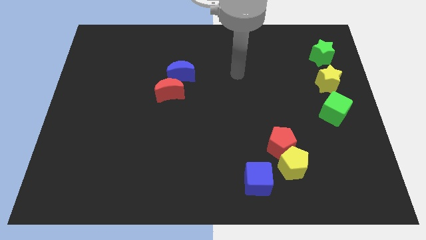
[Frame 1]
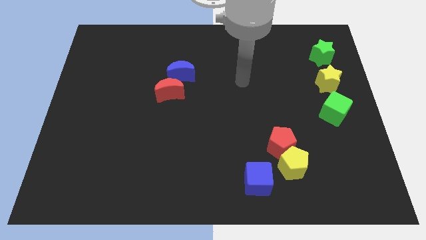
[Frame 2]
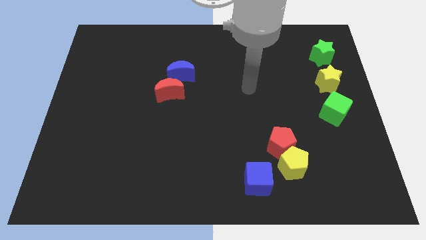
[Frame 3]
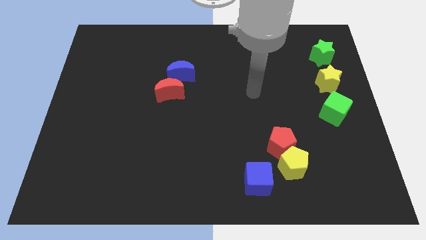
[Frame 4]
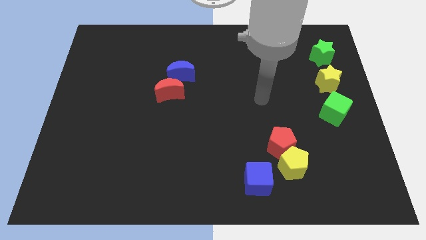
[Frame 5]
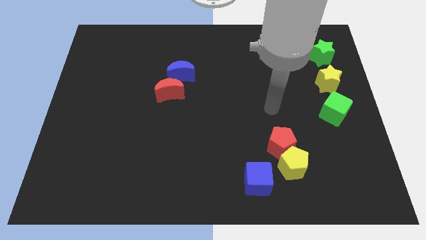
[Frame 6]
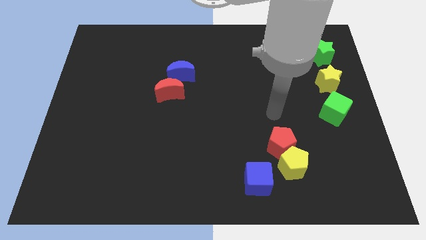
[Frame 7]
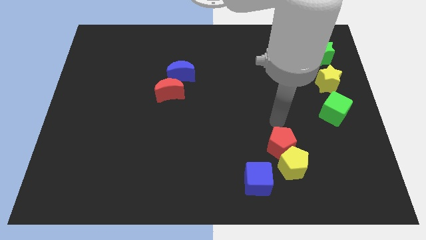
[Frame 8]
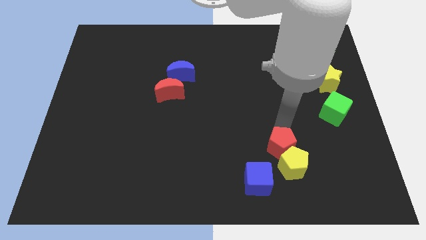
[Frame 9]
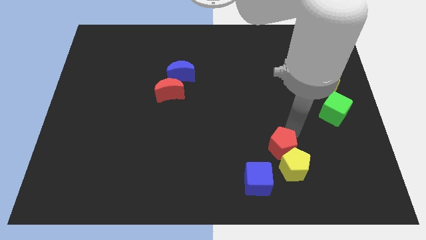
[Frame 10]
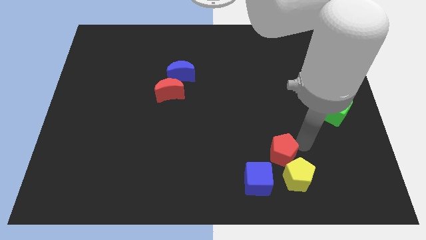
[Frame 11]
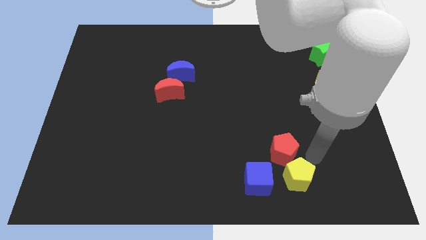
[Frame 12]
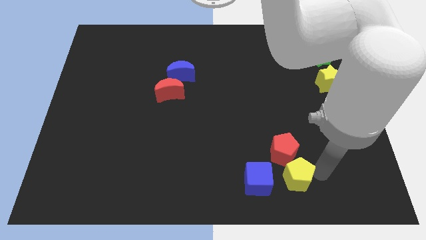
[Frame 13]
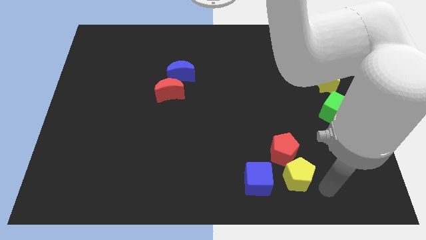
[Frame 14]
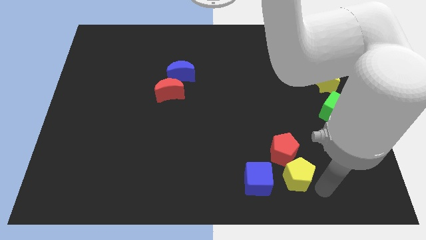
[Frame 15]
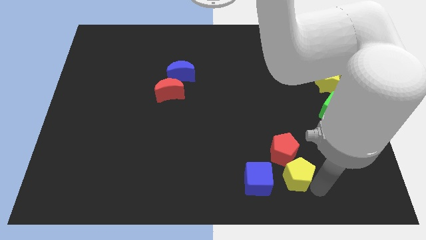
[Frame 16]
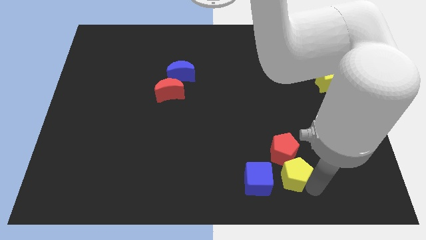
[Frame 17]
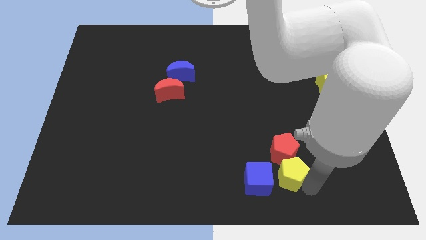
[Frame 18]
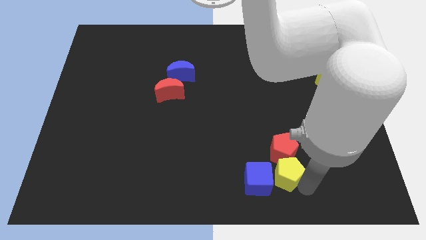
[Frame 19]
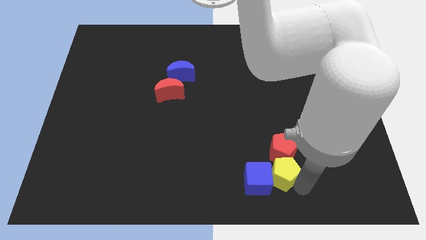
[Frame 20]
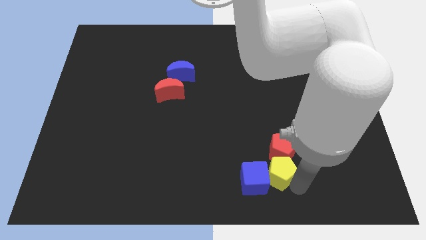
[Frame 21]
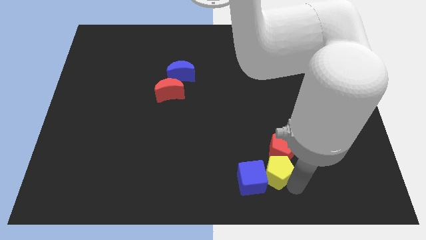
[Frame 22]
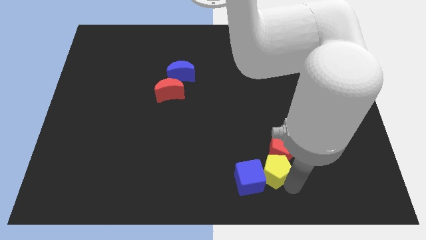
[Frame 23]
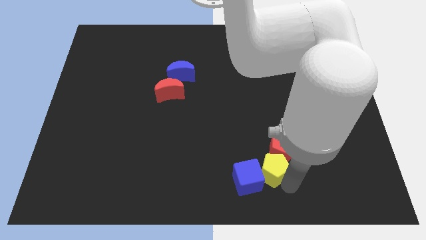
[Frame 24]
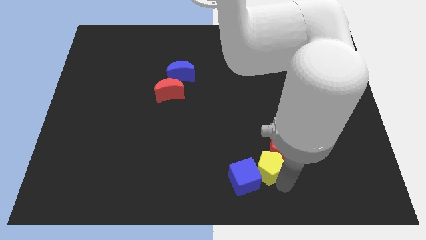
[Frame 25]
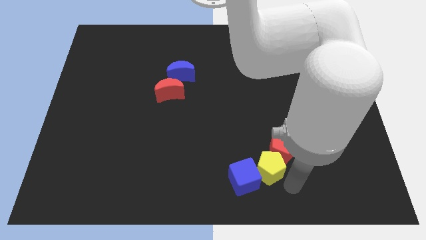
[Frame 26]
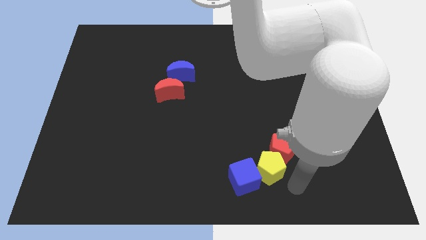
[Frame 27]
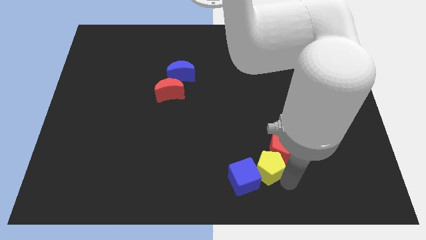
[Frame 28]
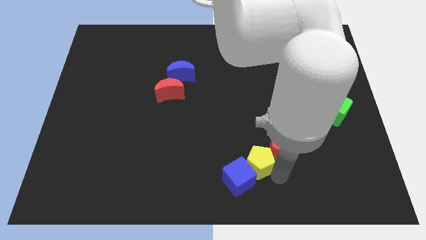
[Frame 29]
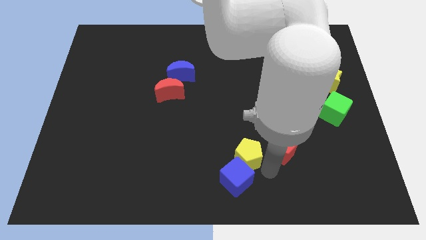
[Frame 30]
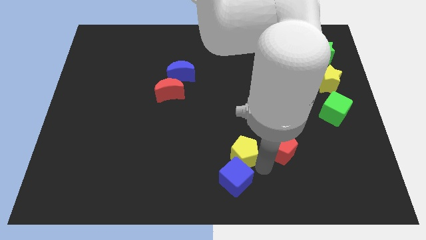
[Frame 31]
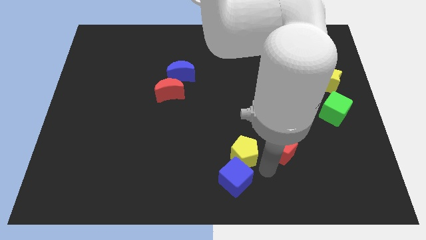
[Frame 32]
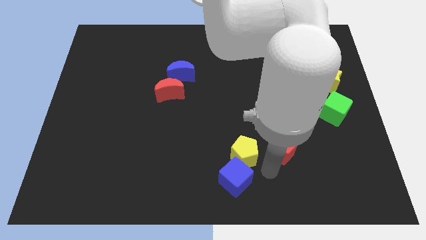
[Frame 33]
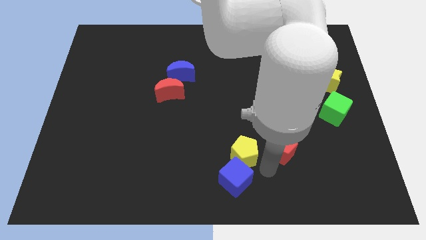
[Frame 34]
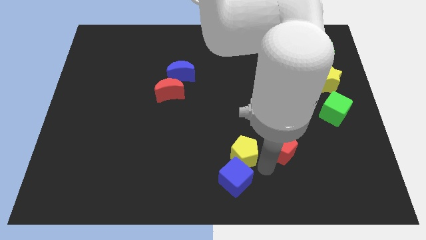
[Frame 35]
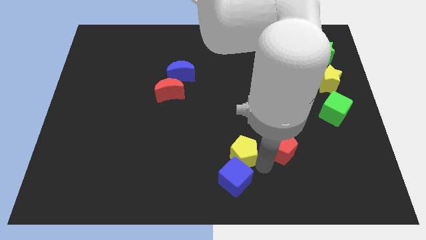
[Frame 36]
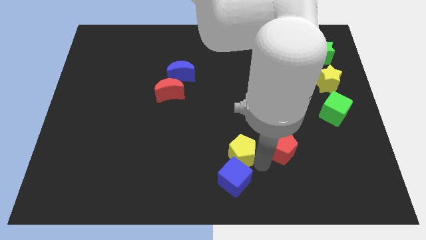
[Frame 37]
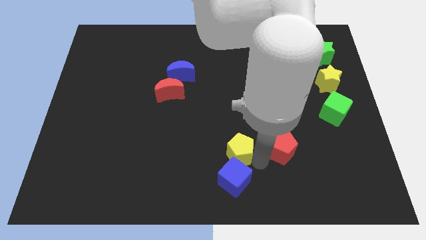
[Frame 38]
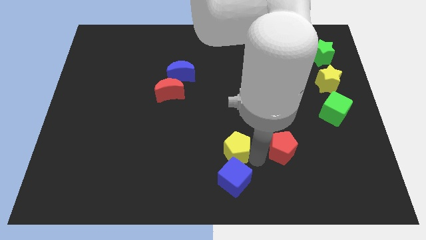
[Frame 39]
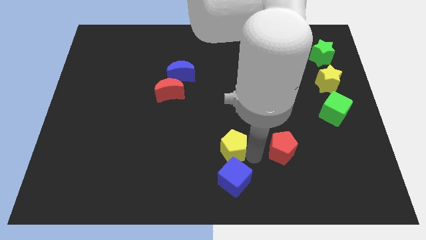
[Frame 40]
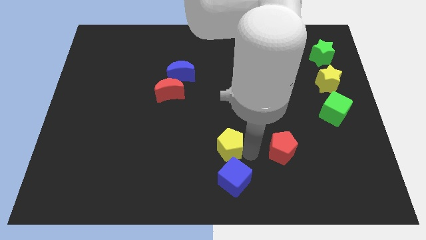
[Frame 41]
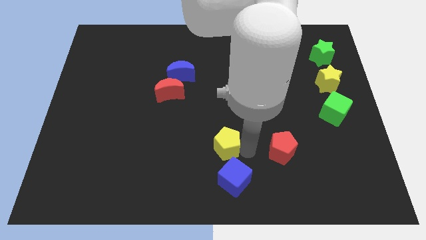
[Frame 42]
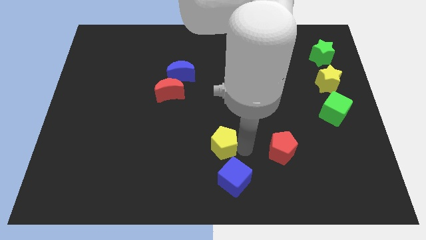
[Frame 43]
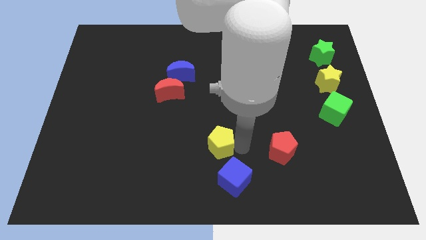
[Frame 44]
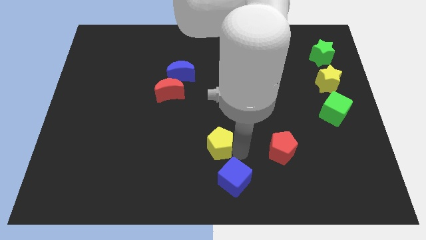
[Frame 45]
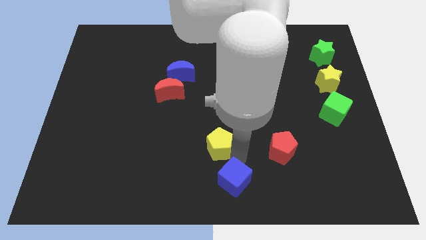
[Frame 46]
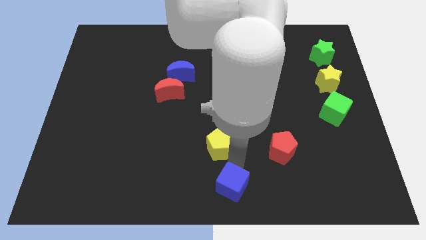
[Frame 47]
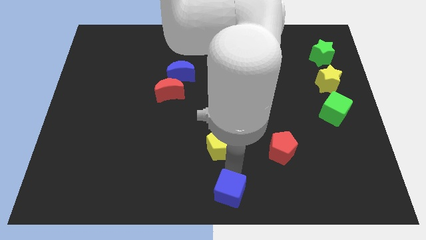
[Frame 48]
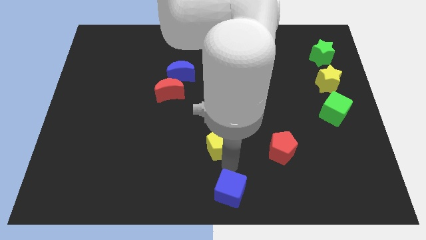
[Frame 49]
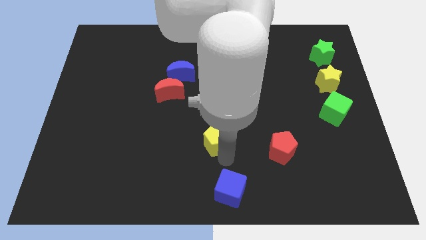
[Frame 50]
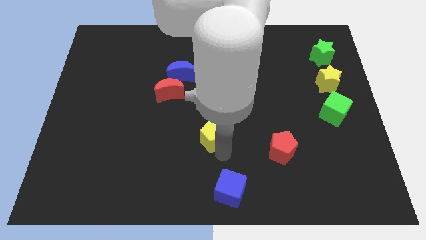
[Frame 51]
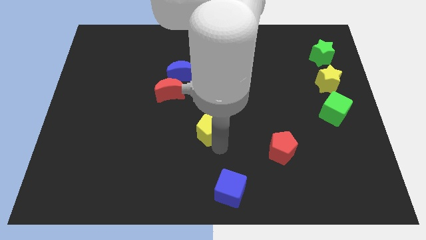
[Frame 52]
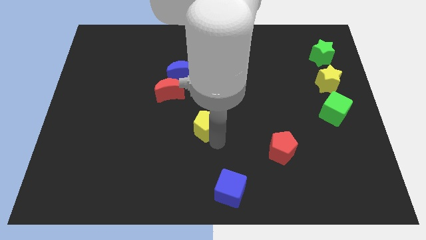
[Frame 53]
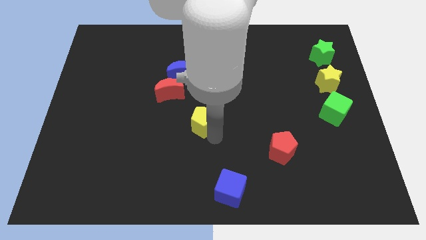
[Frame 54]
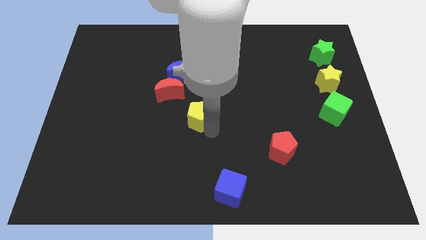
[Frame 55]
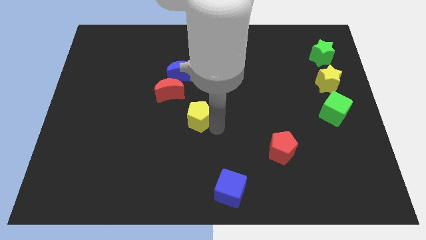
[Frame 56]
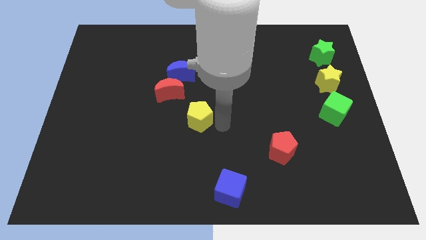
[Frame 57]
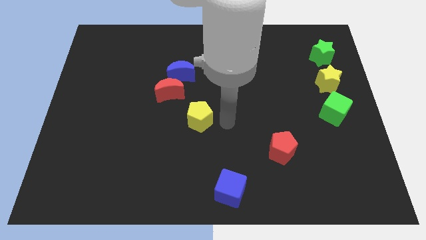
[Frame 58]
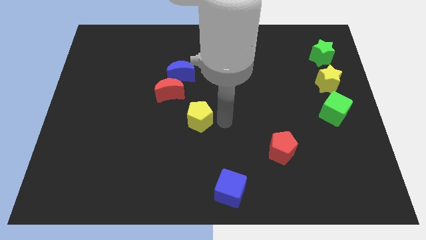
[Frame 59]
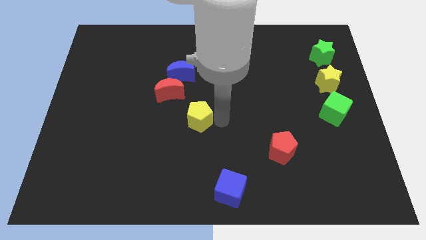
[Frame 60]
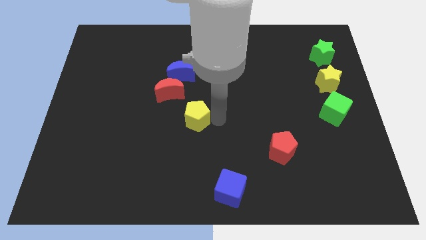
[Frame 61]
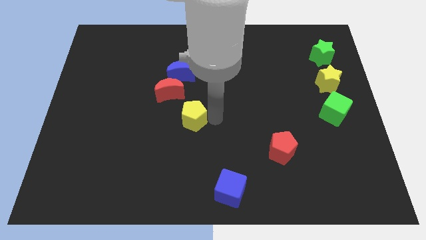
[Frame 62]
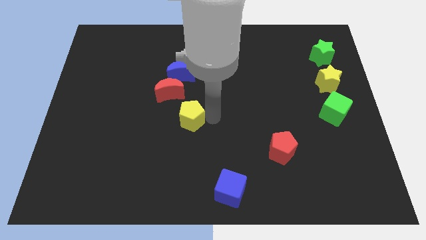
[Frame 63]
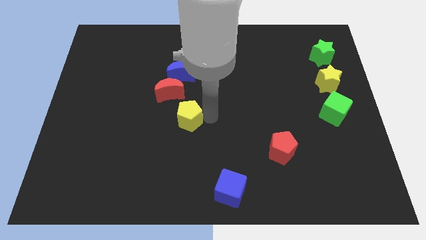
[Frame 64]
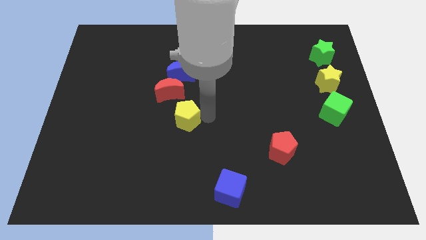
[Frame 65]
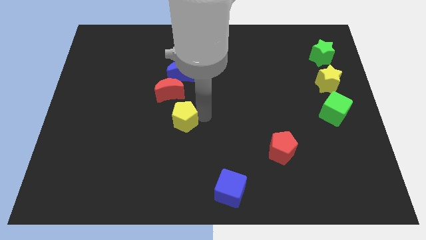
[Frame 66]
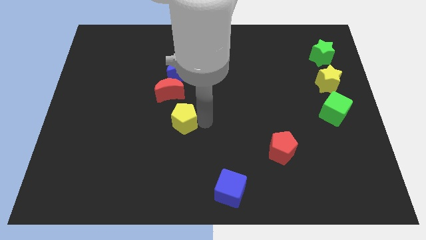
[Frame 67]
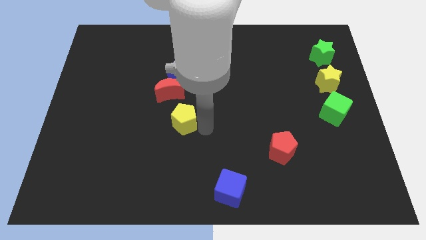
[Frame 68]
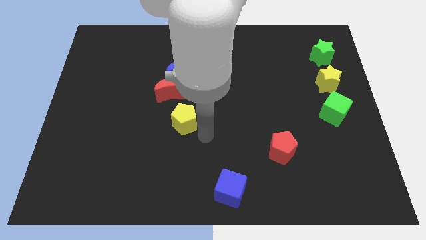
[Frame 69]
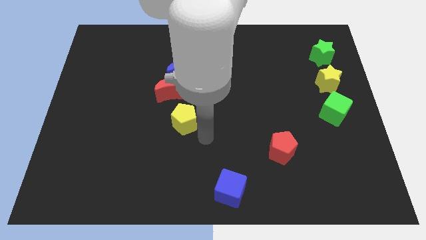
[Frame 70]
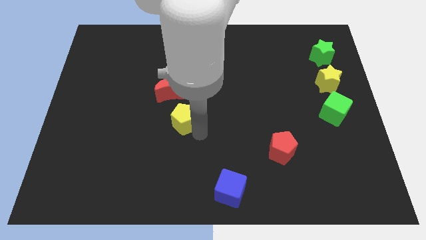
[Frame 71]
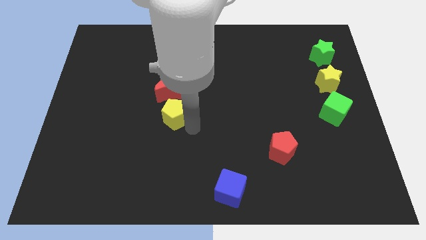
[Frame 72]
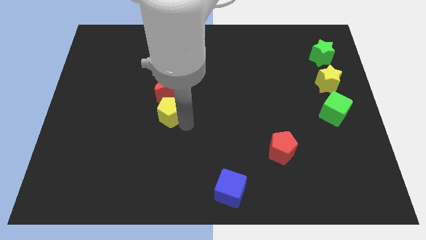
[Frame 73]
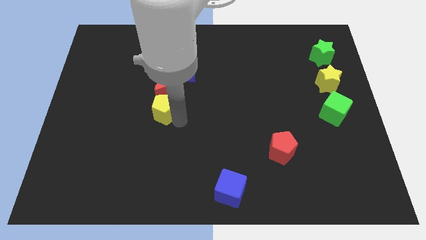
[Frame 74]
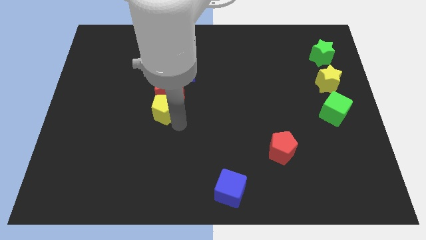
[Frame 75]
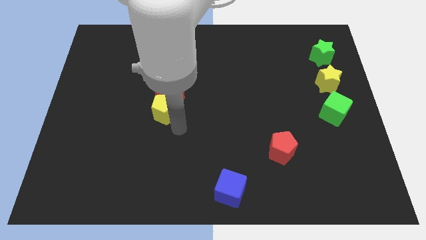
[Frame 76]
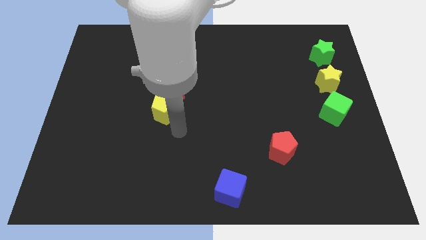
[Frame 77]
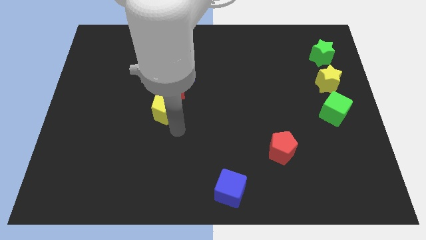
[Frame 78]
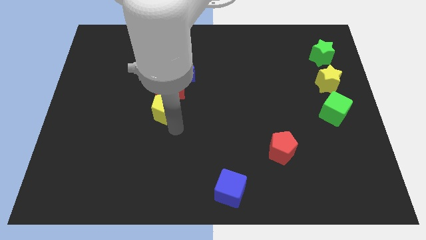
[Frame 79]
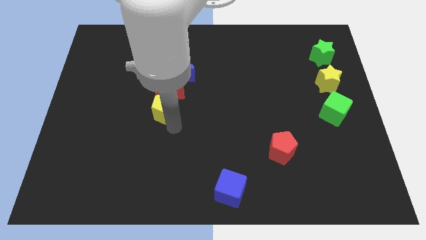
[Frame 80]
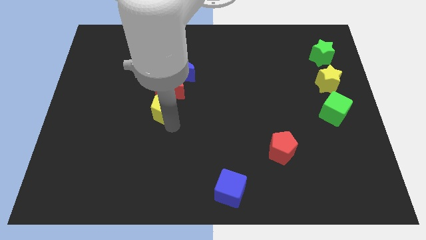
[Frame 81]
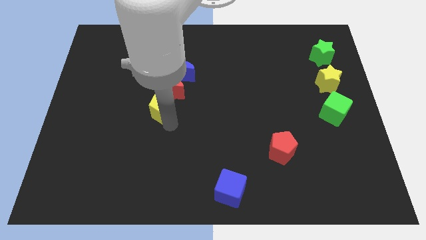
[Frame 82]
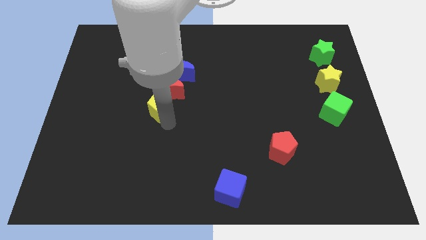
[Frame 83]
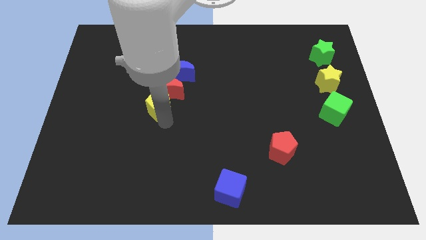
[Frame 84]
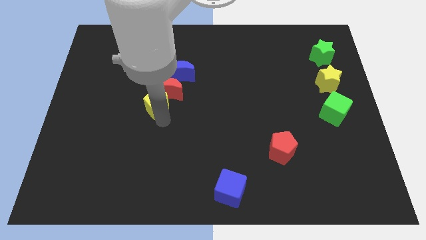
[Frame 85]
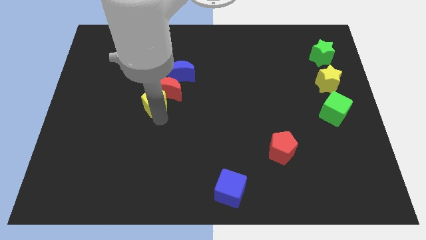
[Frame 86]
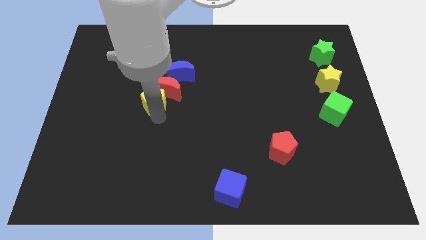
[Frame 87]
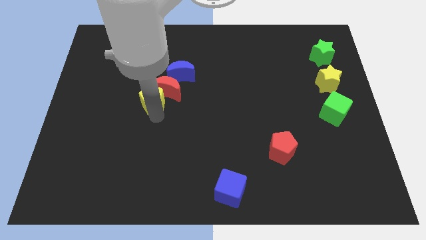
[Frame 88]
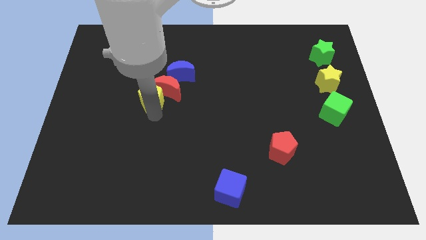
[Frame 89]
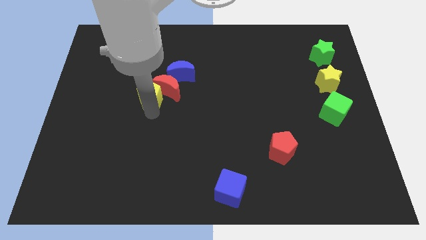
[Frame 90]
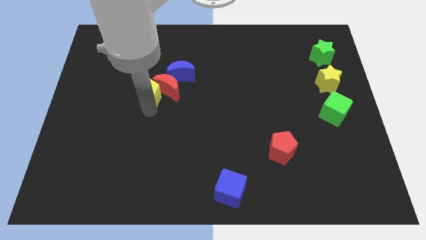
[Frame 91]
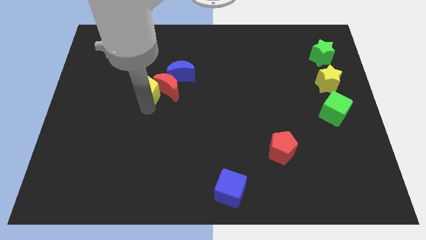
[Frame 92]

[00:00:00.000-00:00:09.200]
put the yellow pentagon diagonally up and to the left of the red moon
